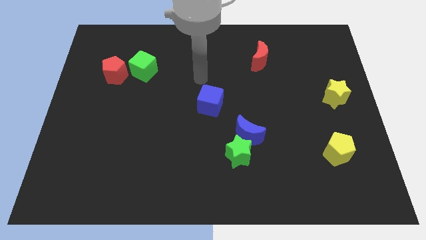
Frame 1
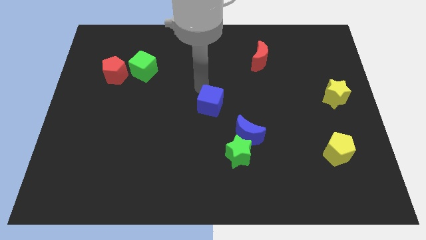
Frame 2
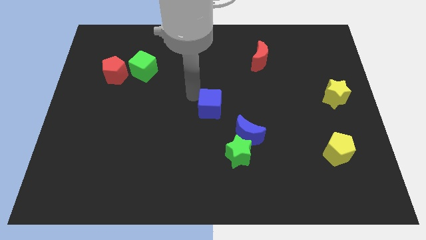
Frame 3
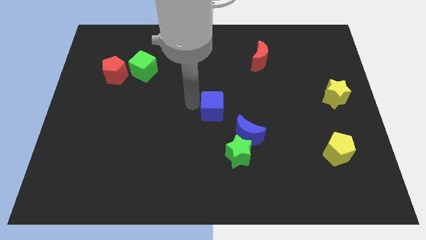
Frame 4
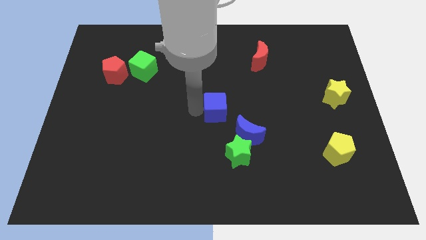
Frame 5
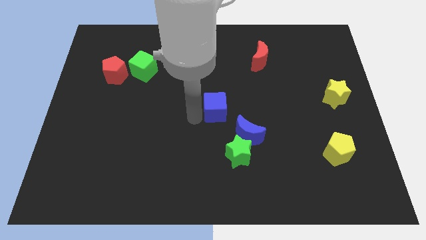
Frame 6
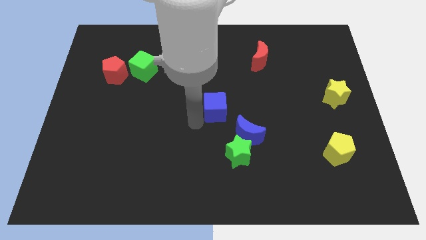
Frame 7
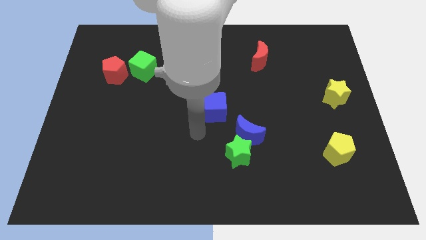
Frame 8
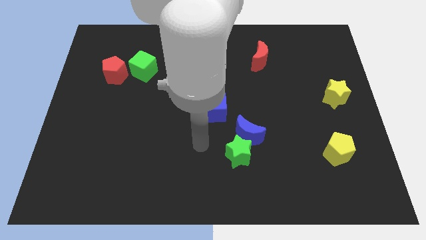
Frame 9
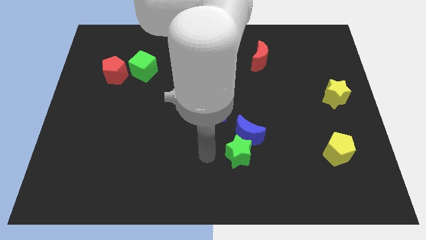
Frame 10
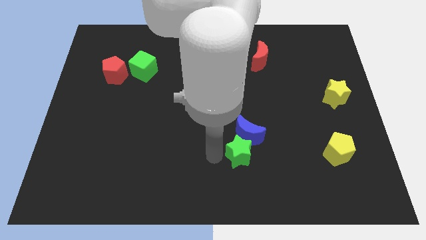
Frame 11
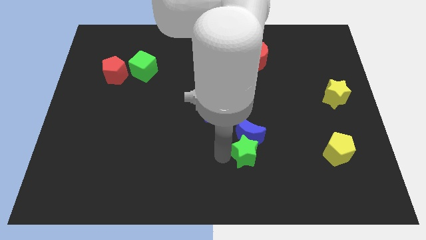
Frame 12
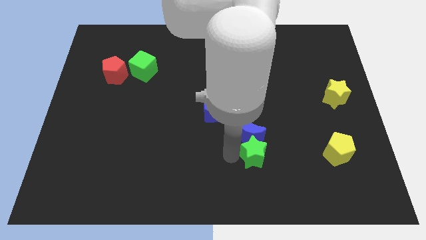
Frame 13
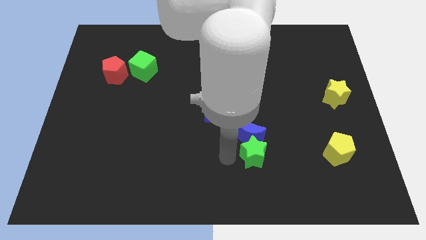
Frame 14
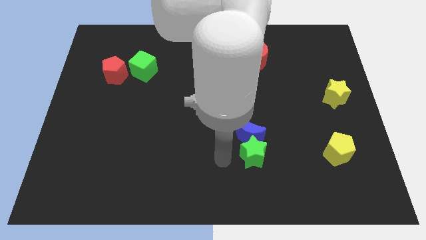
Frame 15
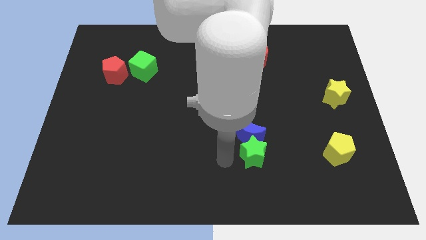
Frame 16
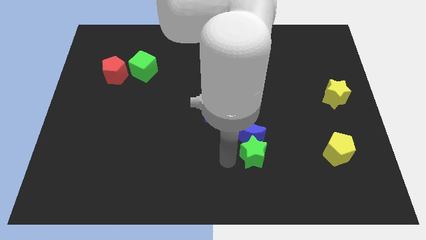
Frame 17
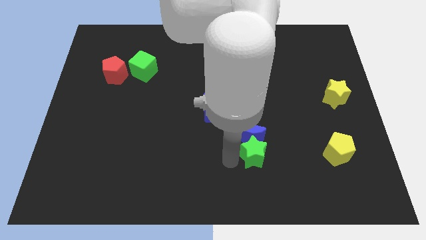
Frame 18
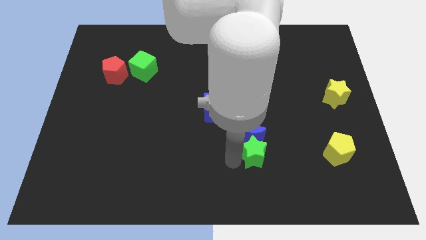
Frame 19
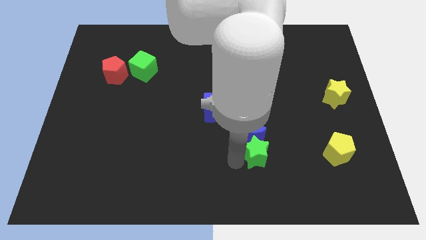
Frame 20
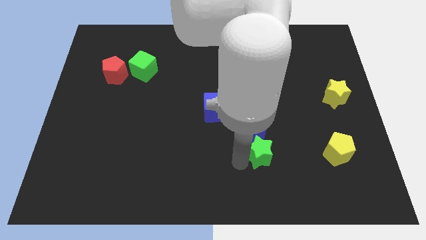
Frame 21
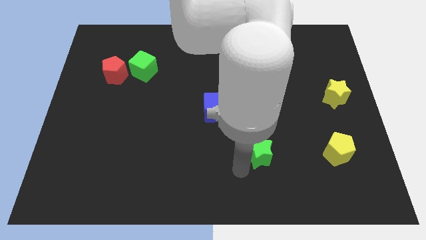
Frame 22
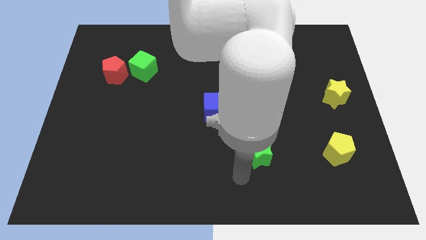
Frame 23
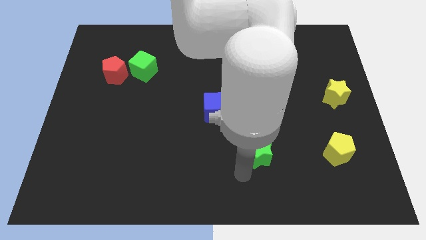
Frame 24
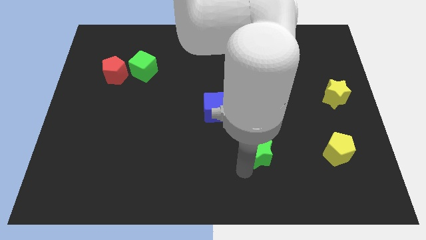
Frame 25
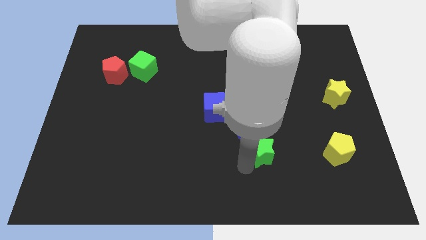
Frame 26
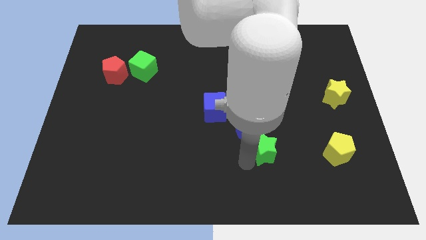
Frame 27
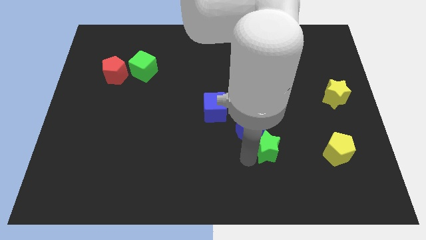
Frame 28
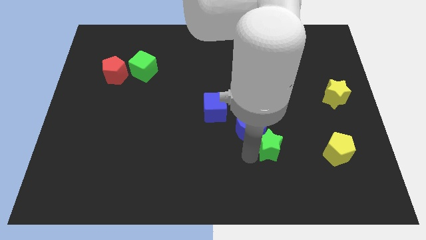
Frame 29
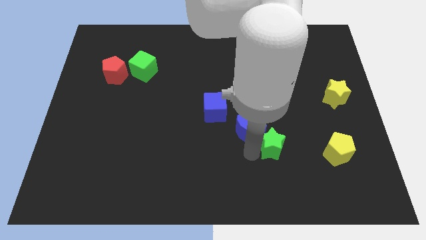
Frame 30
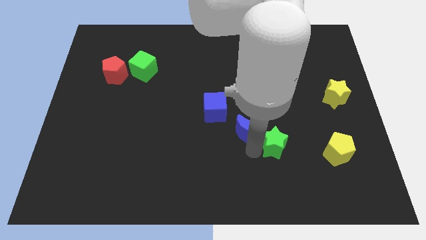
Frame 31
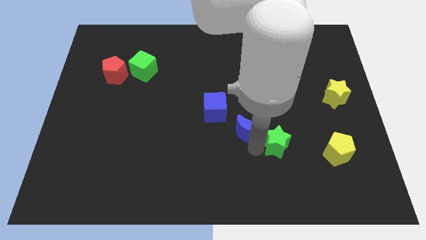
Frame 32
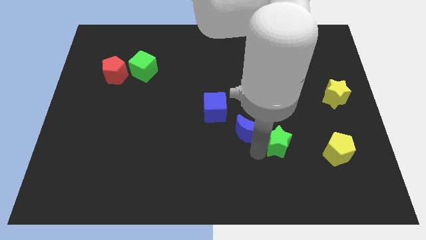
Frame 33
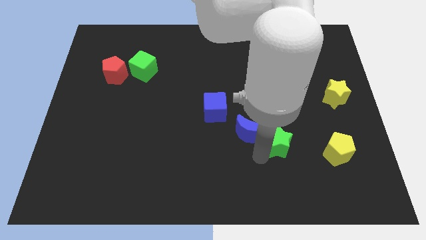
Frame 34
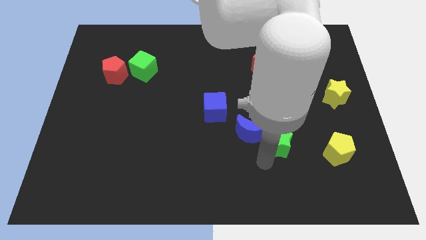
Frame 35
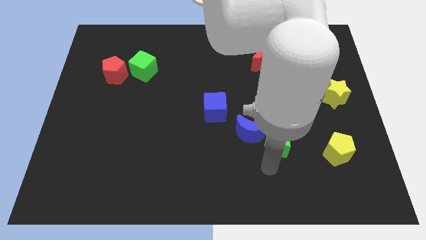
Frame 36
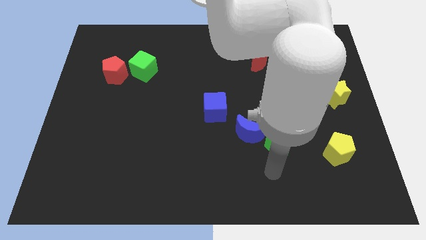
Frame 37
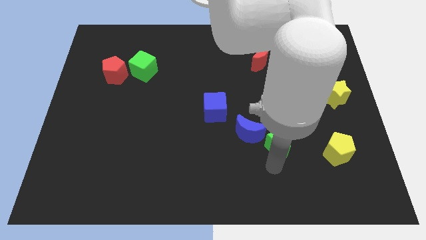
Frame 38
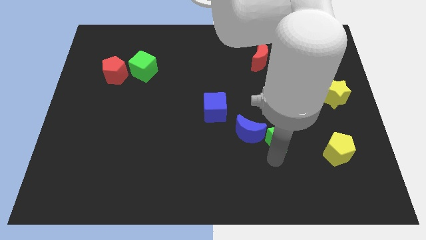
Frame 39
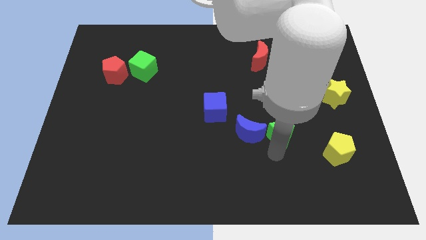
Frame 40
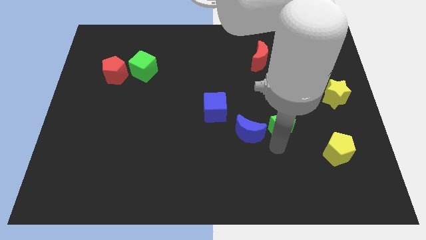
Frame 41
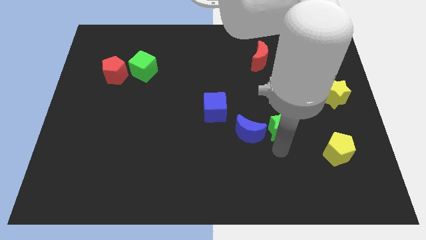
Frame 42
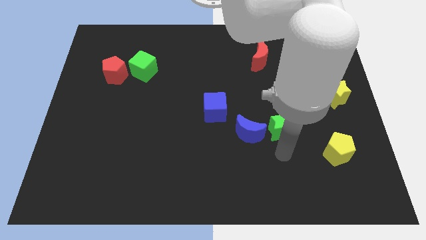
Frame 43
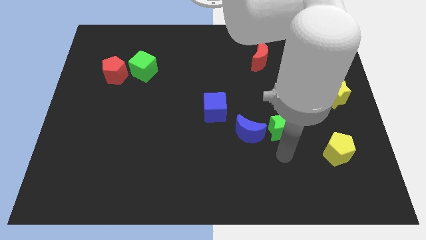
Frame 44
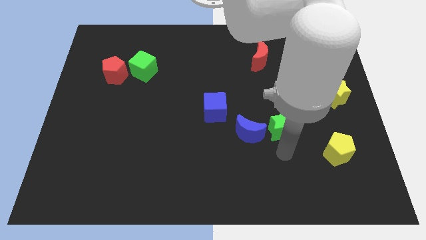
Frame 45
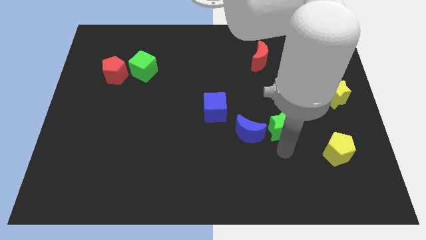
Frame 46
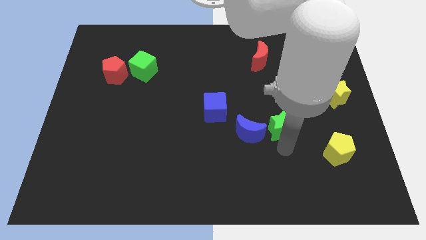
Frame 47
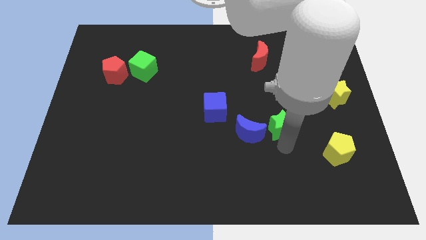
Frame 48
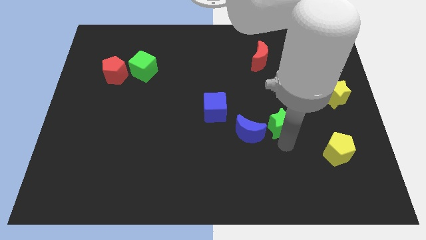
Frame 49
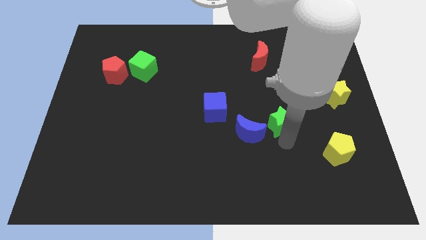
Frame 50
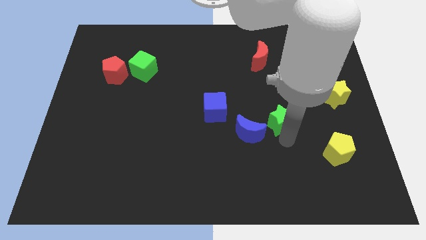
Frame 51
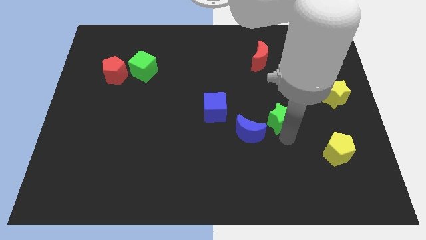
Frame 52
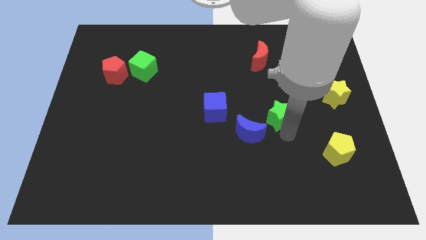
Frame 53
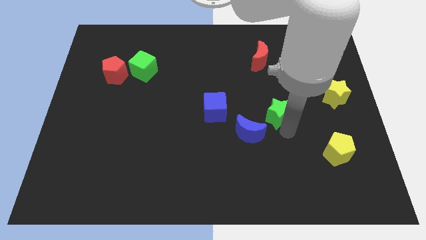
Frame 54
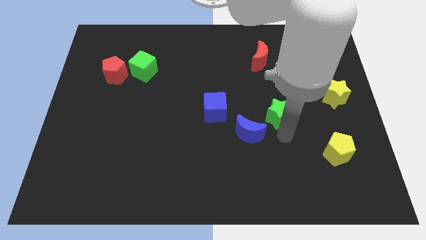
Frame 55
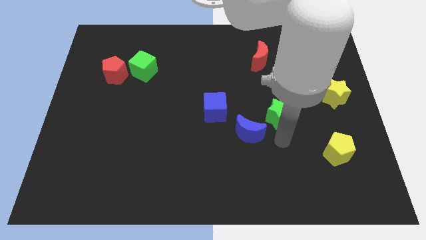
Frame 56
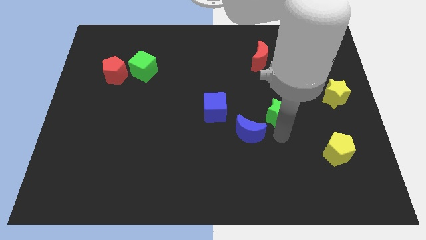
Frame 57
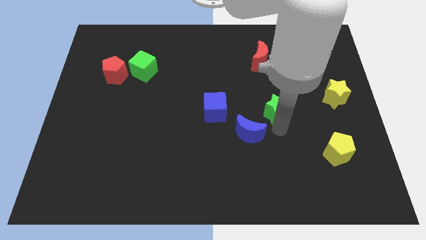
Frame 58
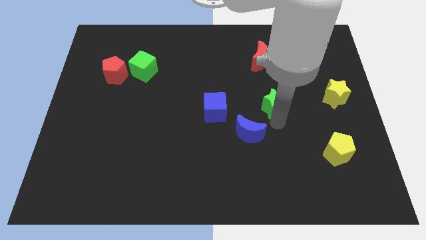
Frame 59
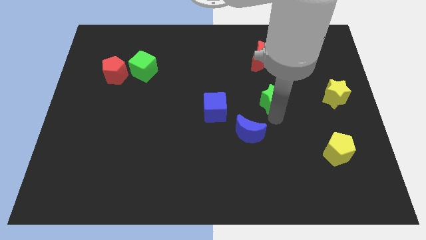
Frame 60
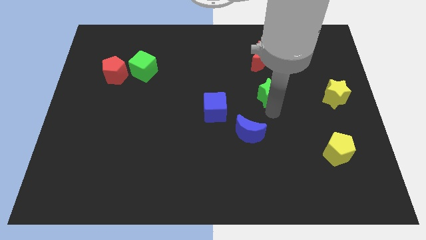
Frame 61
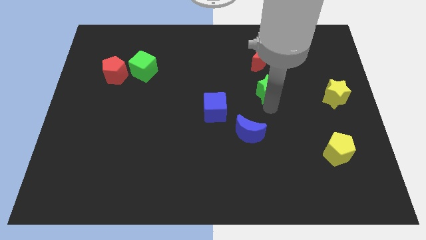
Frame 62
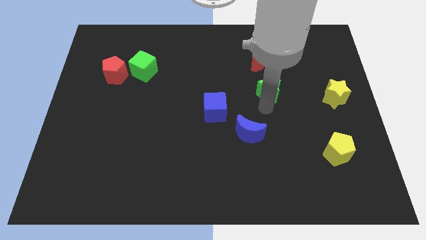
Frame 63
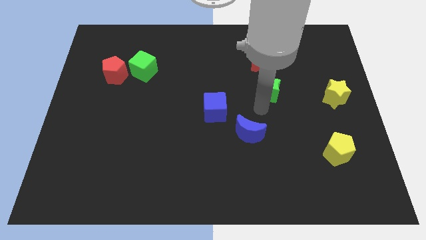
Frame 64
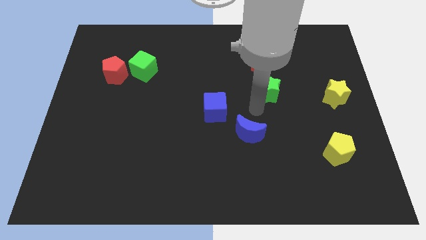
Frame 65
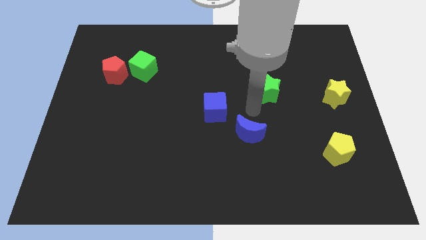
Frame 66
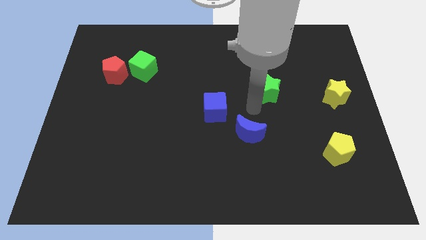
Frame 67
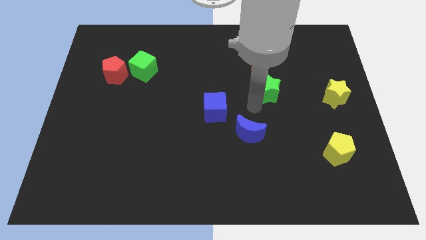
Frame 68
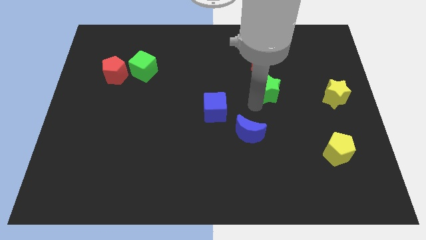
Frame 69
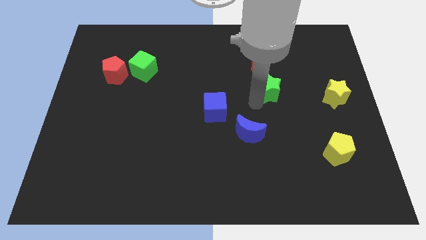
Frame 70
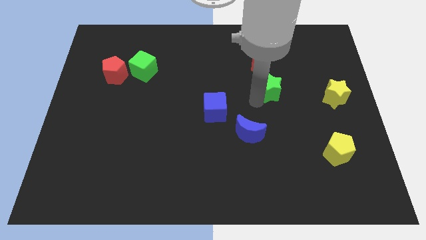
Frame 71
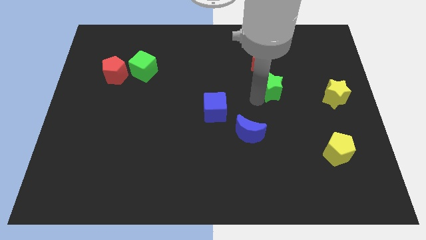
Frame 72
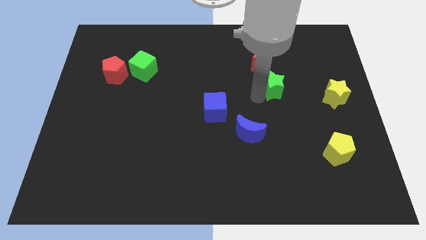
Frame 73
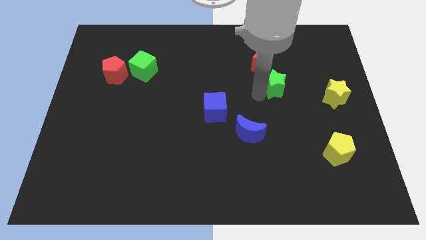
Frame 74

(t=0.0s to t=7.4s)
move the green star to the bottom right of the red moon
